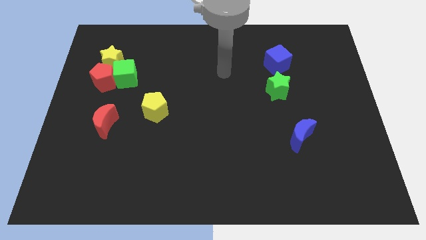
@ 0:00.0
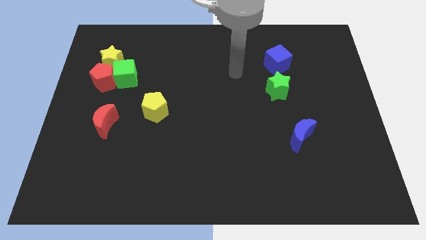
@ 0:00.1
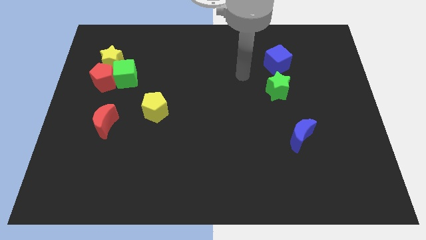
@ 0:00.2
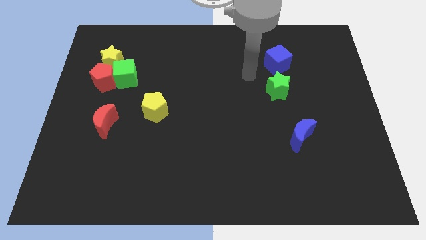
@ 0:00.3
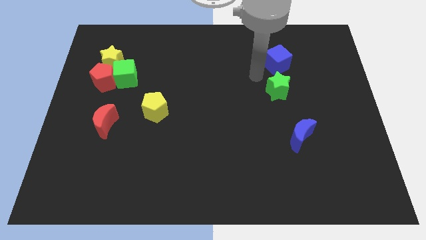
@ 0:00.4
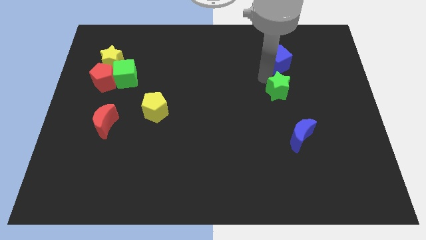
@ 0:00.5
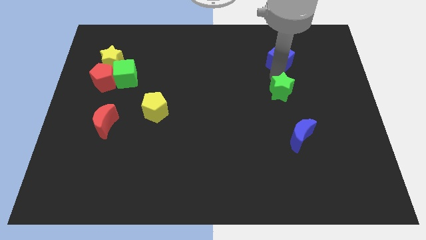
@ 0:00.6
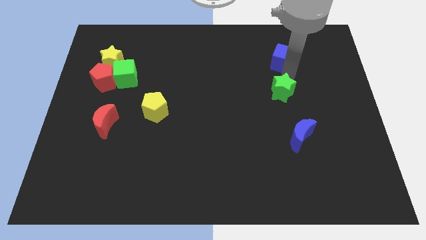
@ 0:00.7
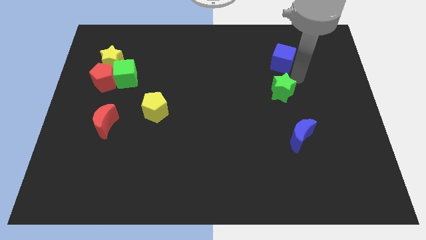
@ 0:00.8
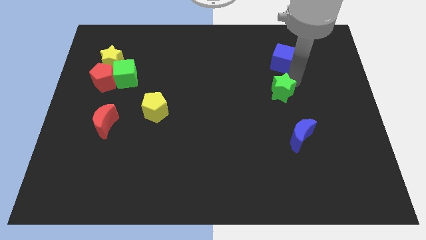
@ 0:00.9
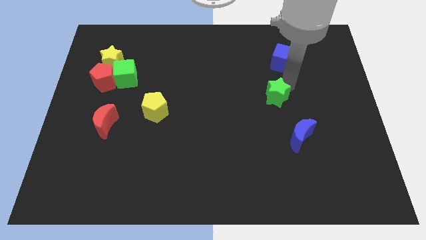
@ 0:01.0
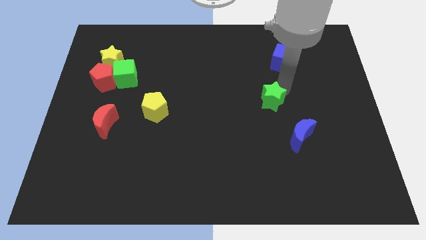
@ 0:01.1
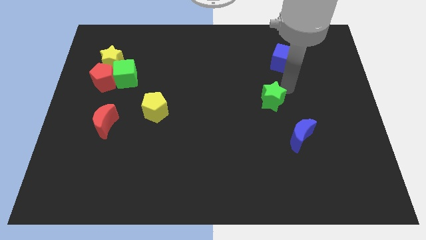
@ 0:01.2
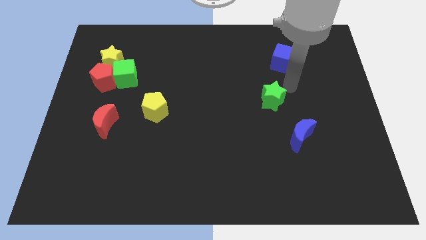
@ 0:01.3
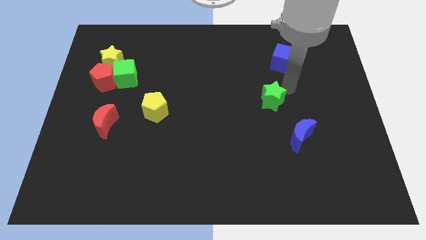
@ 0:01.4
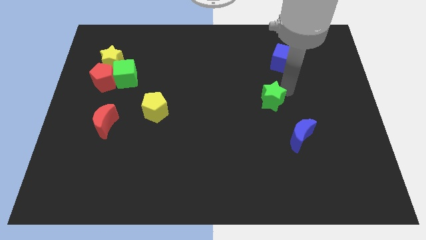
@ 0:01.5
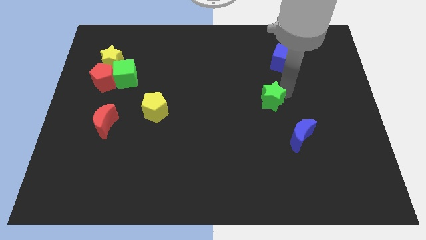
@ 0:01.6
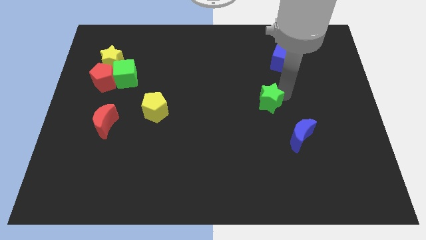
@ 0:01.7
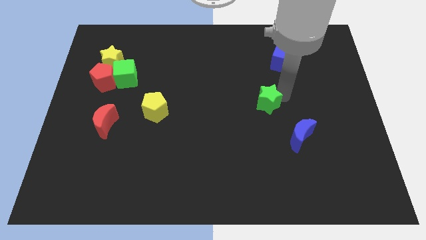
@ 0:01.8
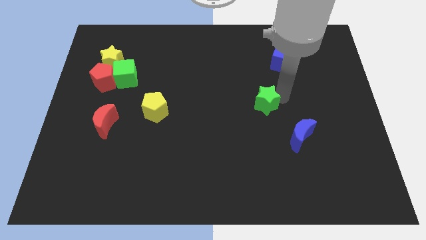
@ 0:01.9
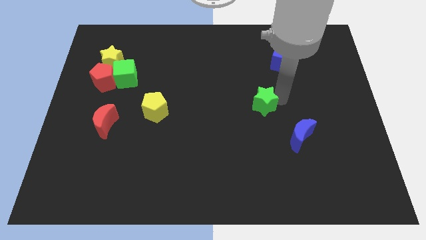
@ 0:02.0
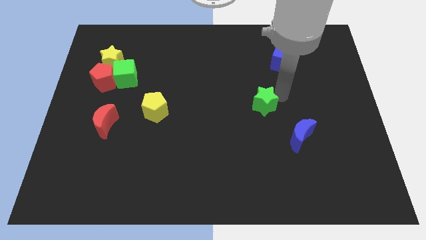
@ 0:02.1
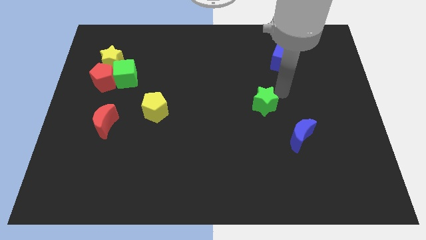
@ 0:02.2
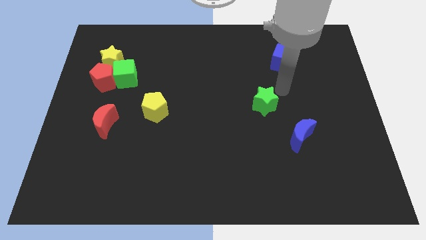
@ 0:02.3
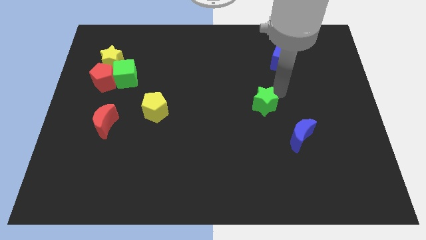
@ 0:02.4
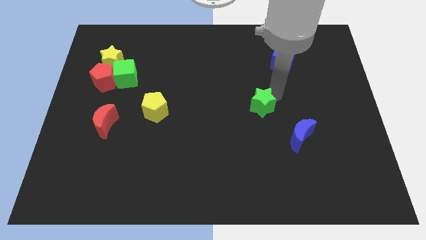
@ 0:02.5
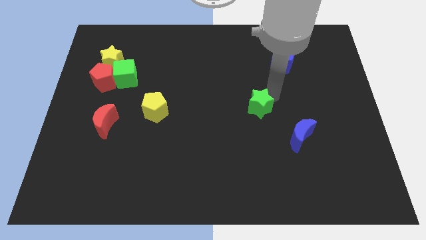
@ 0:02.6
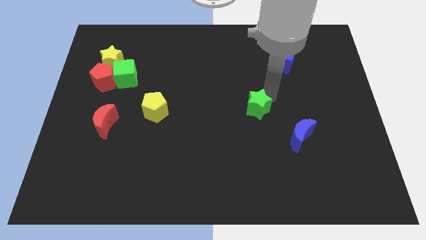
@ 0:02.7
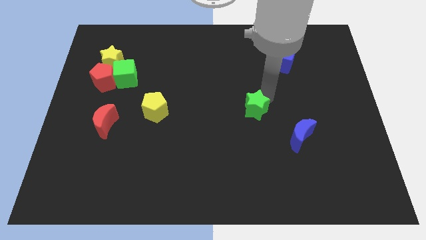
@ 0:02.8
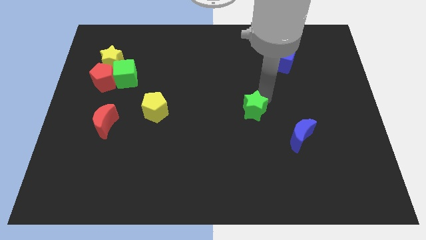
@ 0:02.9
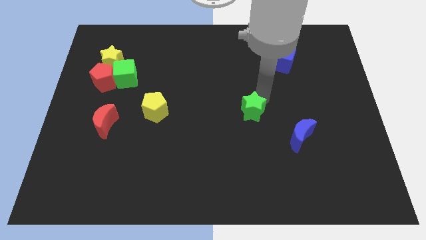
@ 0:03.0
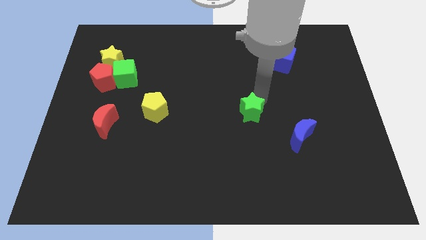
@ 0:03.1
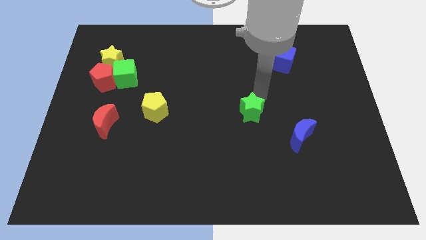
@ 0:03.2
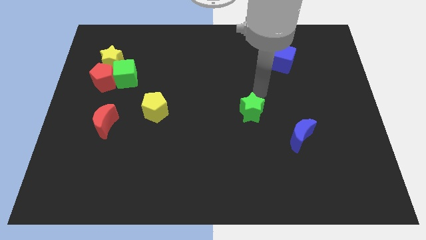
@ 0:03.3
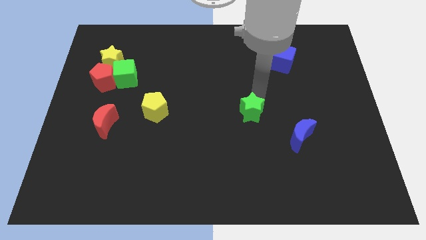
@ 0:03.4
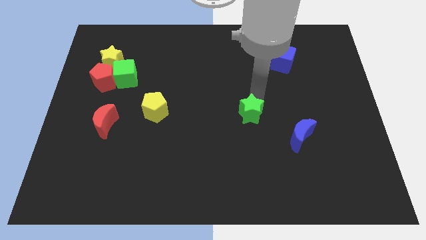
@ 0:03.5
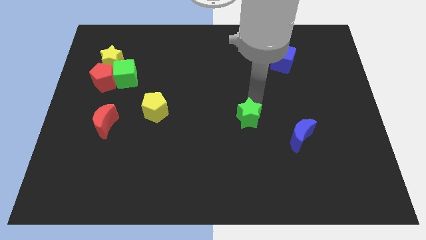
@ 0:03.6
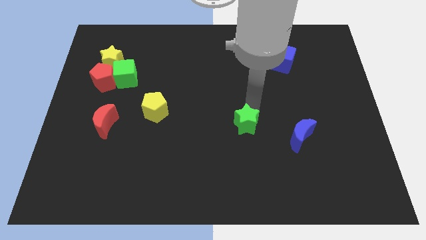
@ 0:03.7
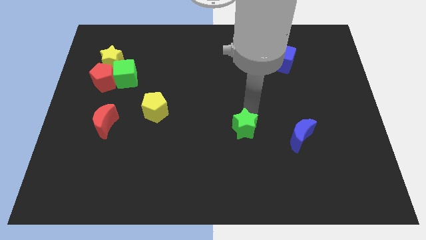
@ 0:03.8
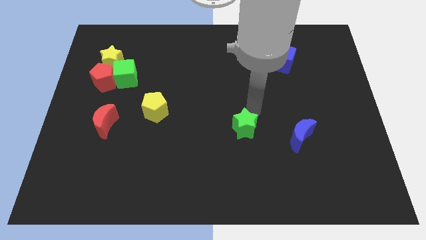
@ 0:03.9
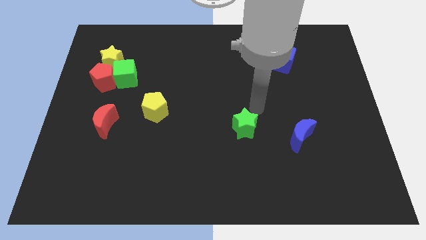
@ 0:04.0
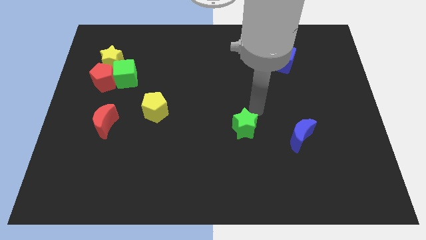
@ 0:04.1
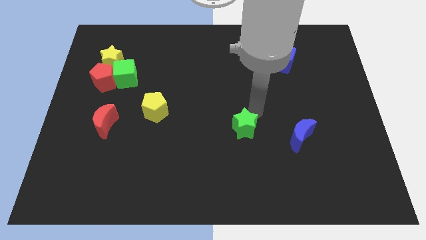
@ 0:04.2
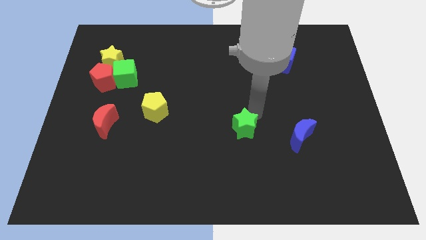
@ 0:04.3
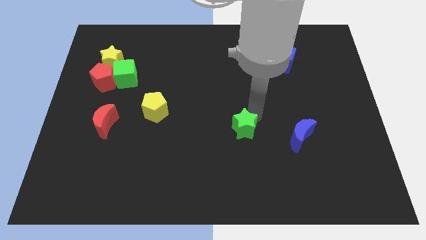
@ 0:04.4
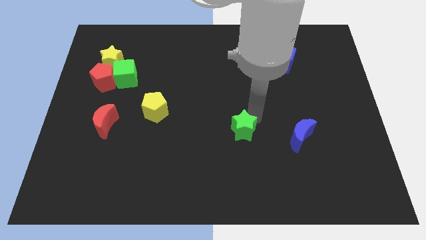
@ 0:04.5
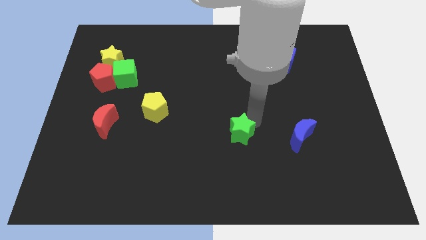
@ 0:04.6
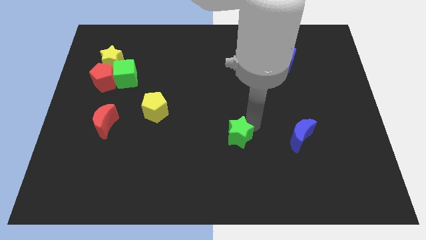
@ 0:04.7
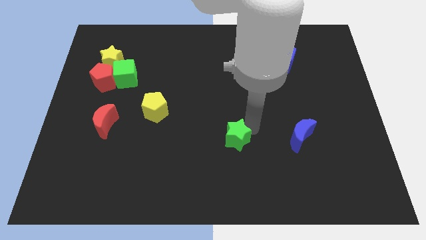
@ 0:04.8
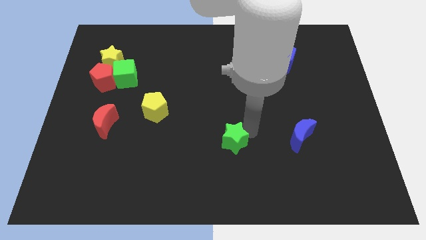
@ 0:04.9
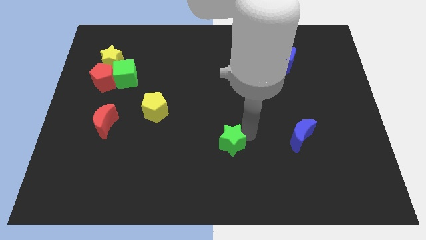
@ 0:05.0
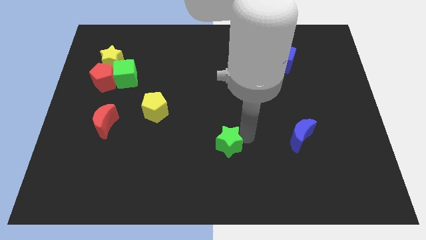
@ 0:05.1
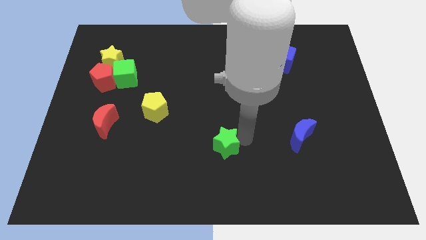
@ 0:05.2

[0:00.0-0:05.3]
slide the green star down and then to the left

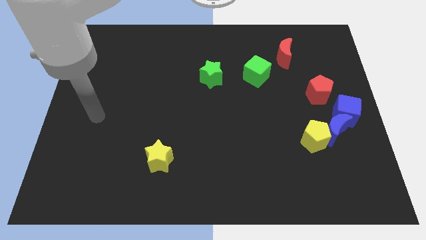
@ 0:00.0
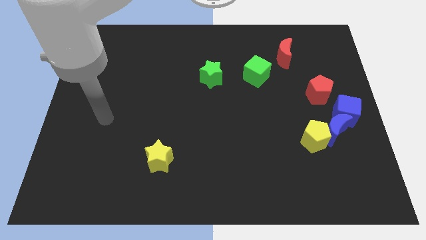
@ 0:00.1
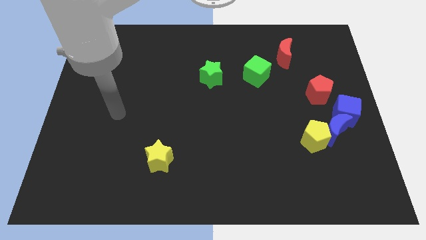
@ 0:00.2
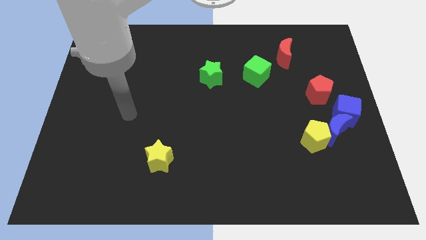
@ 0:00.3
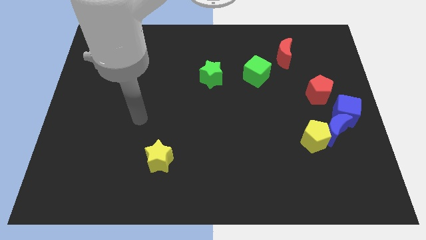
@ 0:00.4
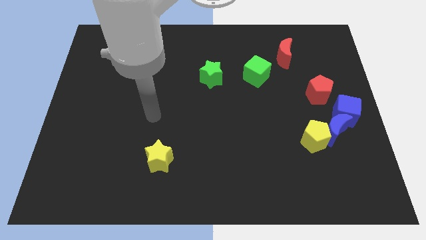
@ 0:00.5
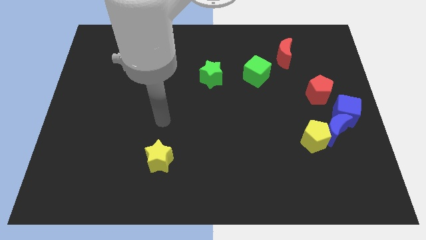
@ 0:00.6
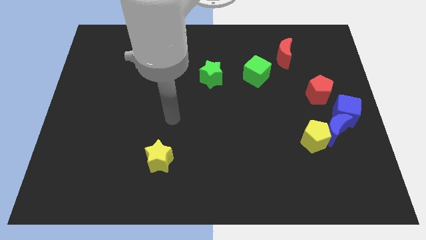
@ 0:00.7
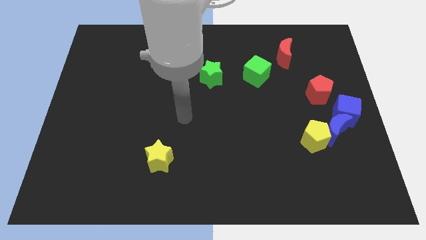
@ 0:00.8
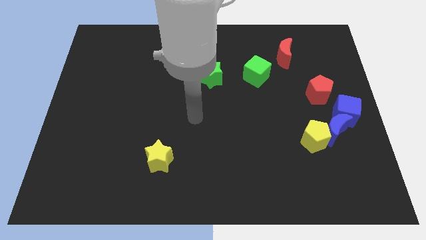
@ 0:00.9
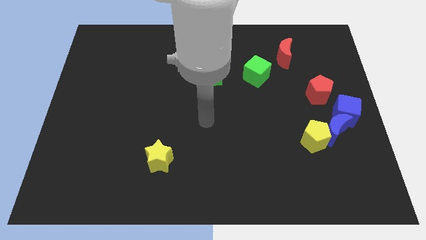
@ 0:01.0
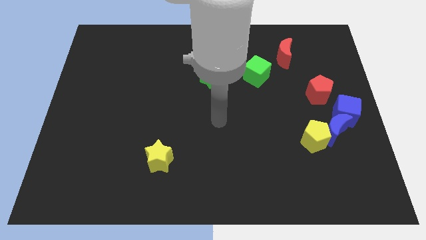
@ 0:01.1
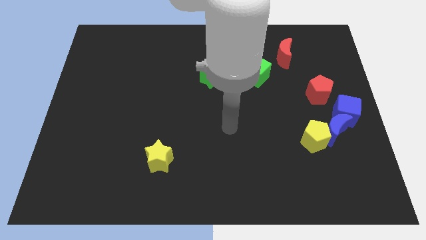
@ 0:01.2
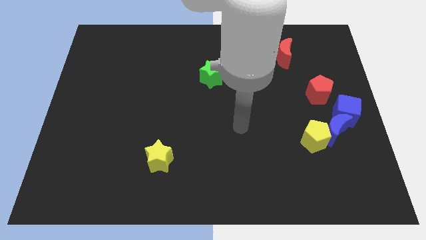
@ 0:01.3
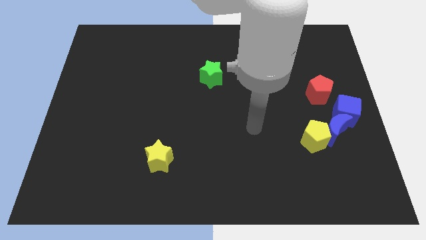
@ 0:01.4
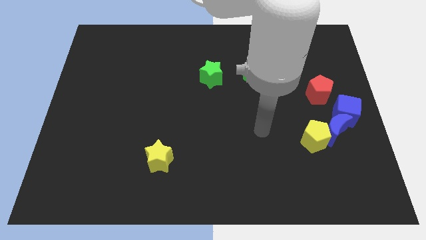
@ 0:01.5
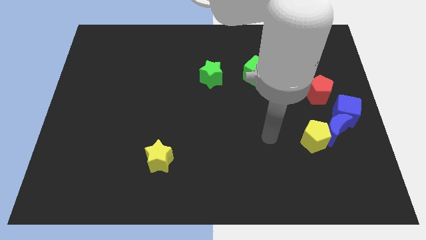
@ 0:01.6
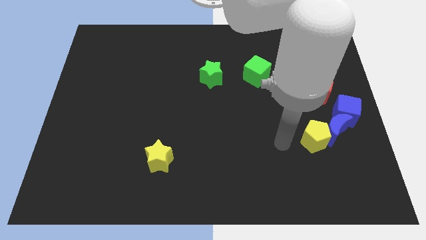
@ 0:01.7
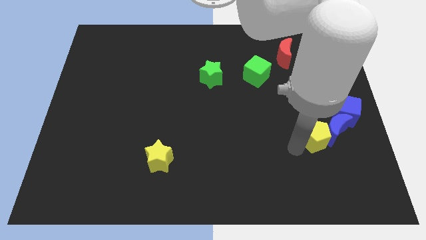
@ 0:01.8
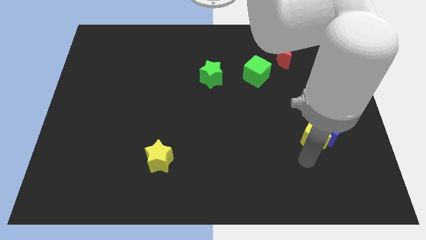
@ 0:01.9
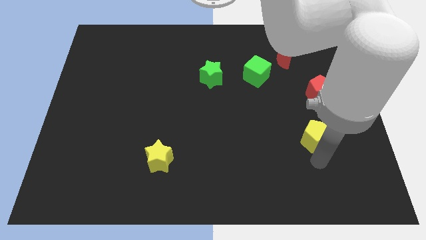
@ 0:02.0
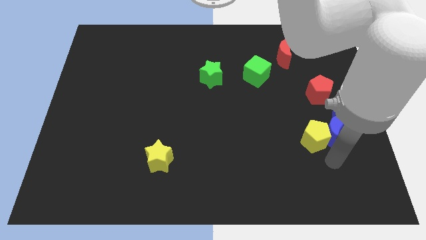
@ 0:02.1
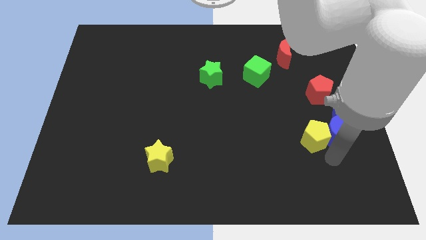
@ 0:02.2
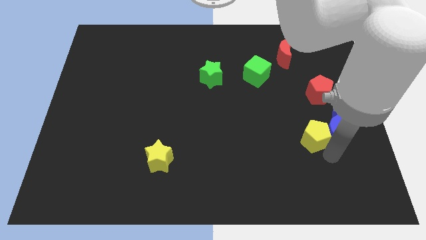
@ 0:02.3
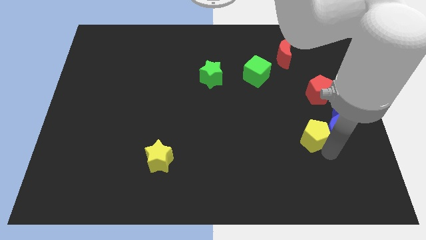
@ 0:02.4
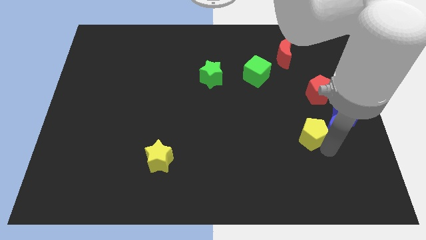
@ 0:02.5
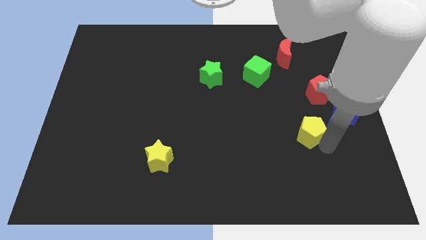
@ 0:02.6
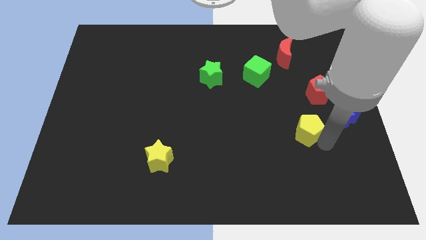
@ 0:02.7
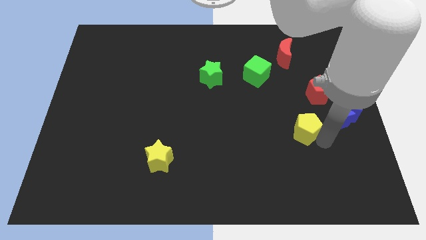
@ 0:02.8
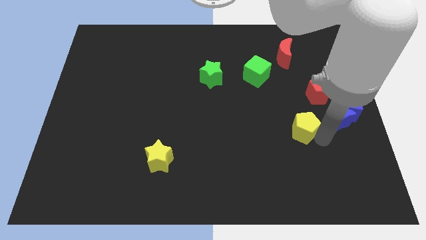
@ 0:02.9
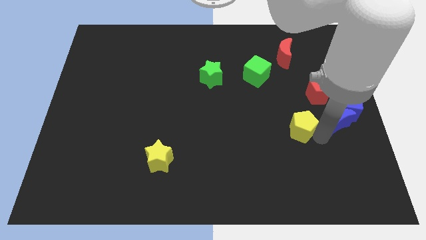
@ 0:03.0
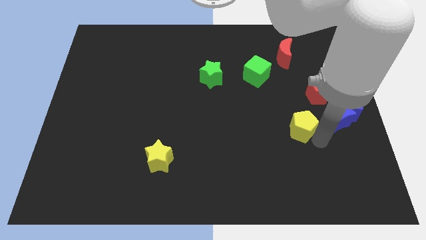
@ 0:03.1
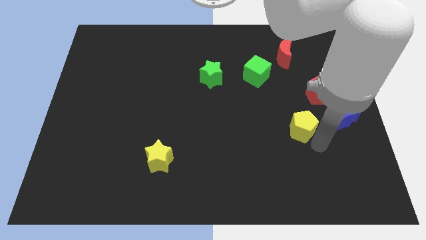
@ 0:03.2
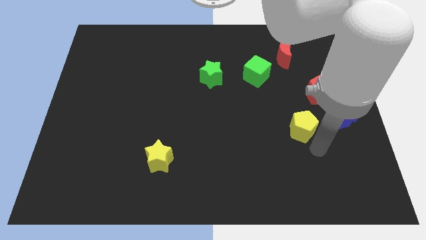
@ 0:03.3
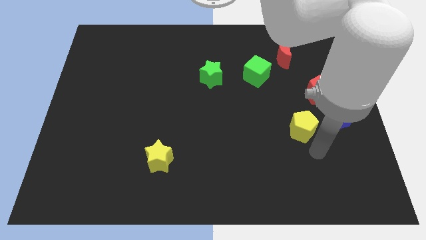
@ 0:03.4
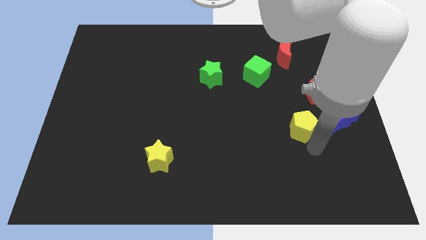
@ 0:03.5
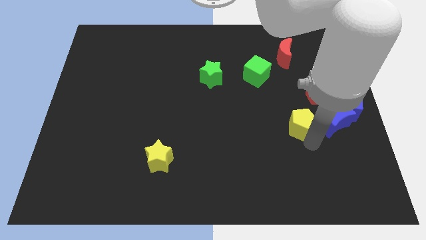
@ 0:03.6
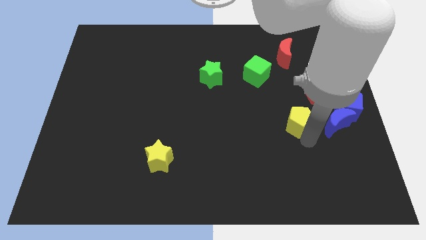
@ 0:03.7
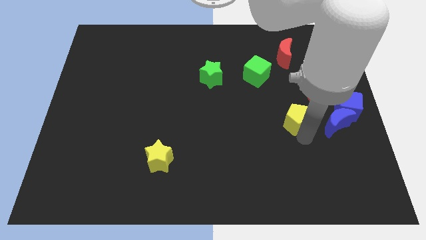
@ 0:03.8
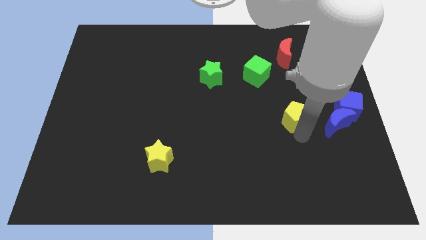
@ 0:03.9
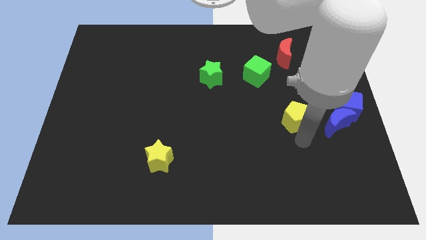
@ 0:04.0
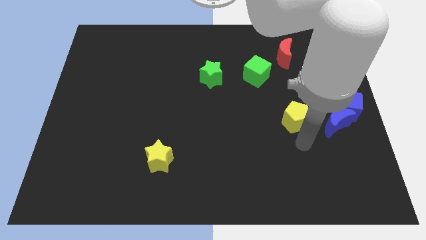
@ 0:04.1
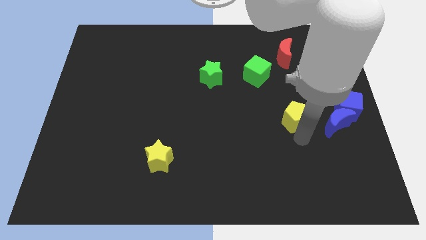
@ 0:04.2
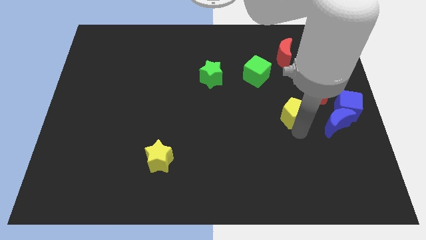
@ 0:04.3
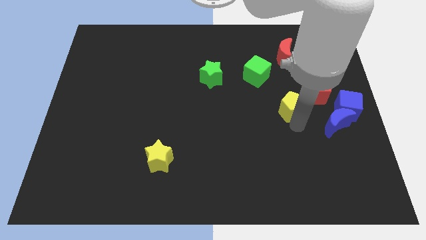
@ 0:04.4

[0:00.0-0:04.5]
slide the yellow pentagon a little bit upwards
